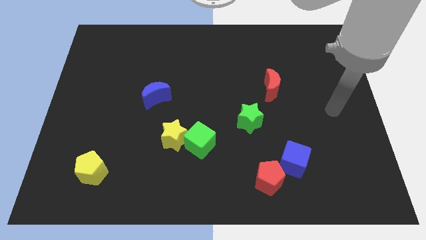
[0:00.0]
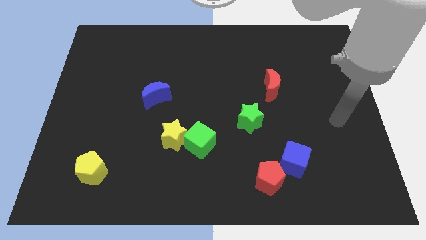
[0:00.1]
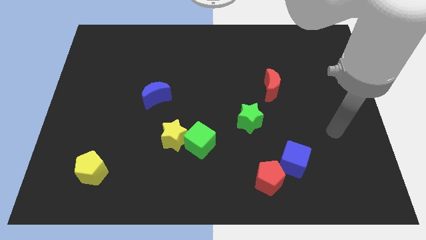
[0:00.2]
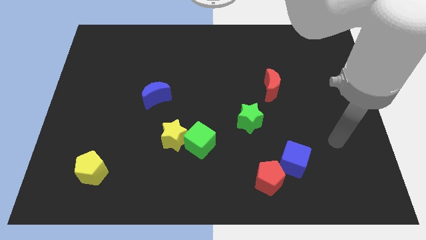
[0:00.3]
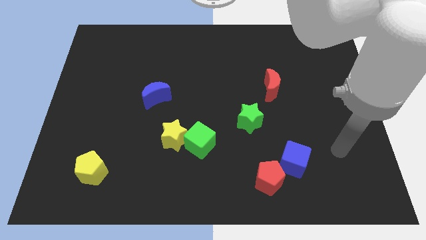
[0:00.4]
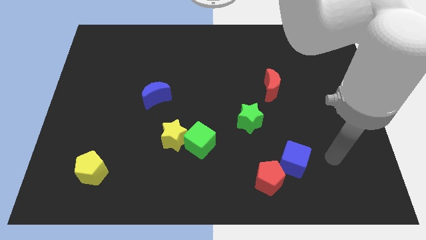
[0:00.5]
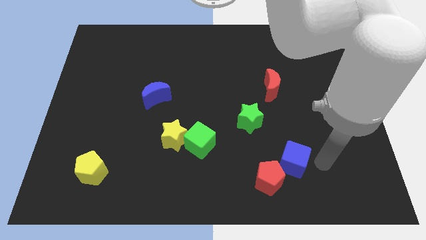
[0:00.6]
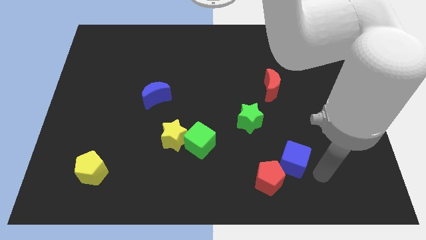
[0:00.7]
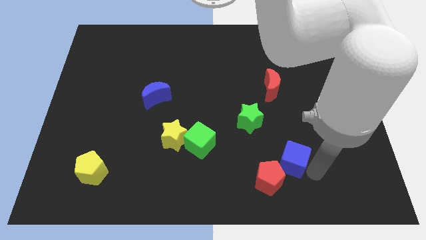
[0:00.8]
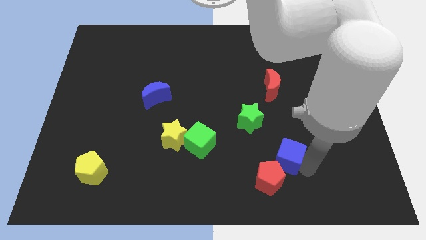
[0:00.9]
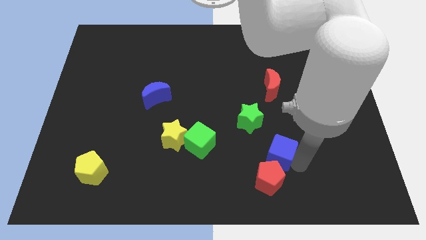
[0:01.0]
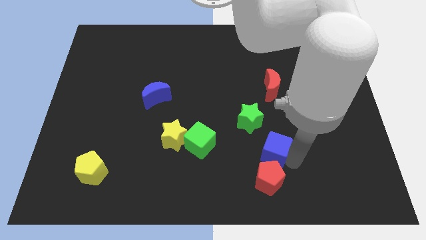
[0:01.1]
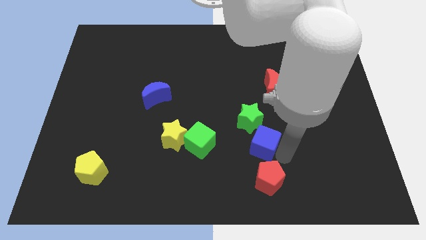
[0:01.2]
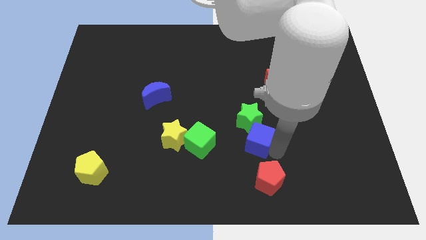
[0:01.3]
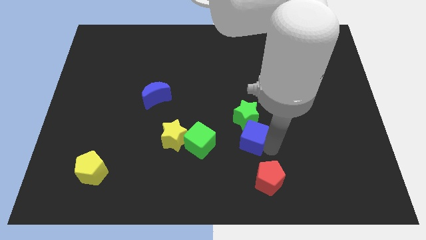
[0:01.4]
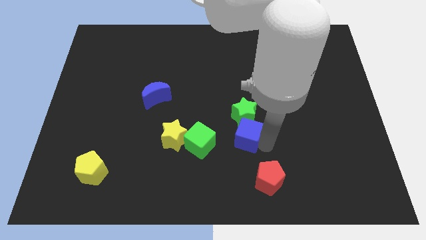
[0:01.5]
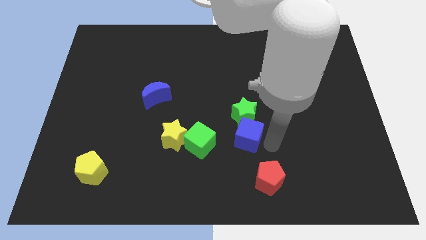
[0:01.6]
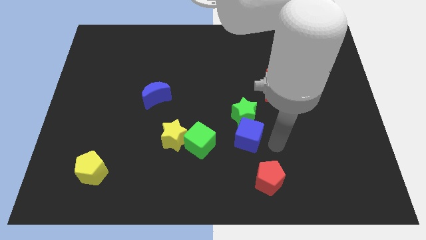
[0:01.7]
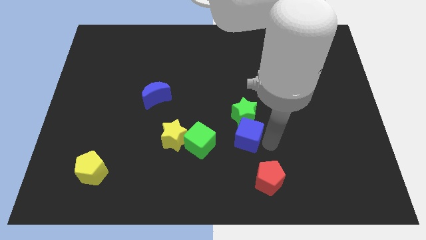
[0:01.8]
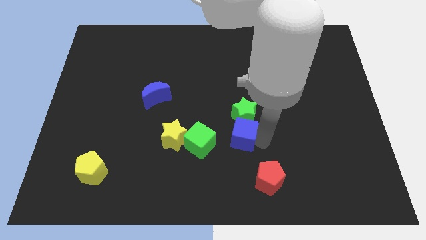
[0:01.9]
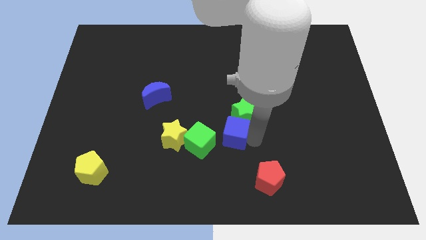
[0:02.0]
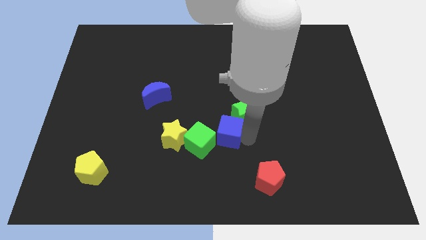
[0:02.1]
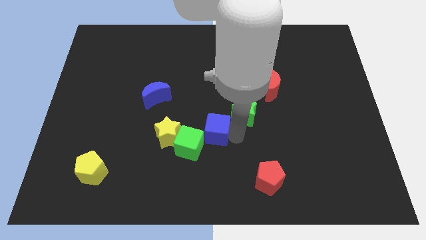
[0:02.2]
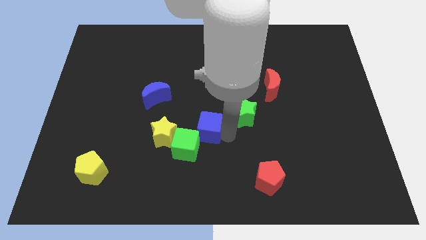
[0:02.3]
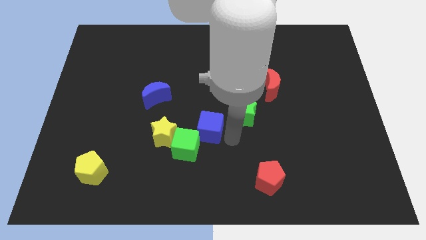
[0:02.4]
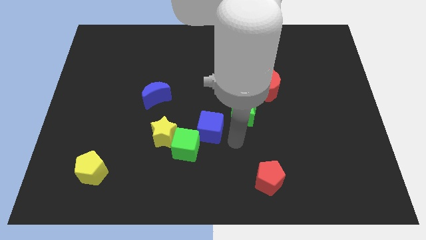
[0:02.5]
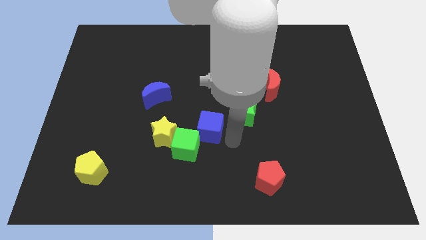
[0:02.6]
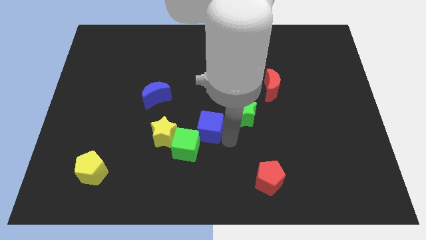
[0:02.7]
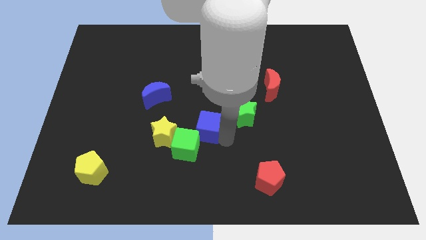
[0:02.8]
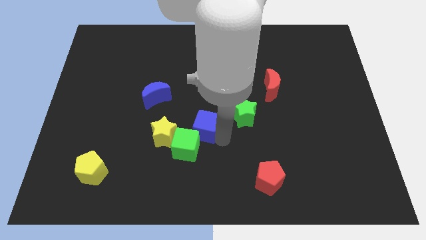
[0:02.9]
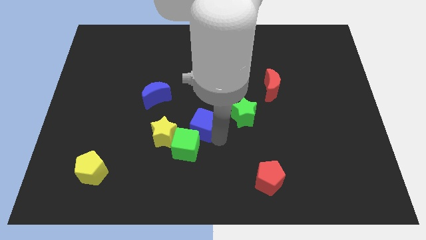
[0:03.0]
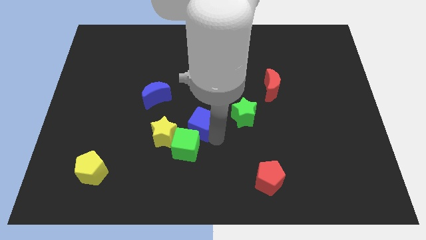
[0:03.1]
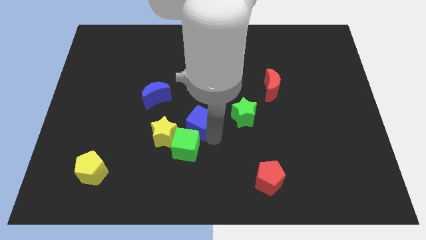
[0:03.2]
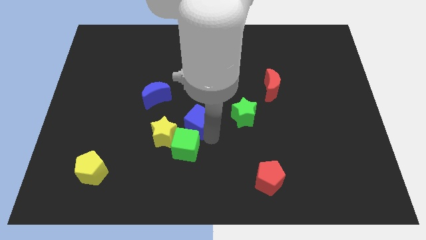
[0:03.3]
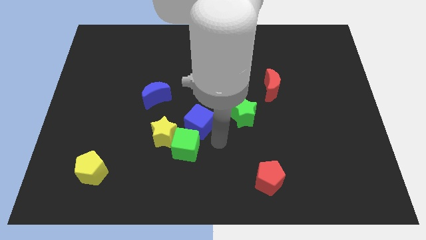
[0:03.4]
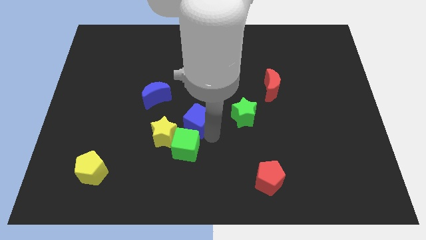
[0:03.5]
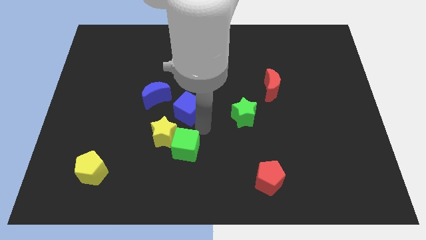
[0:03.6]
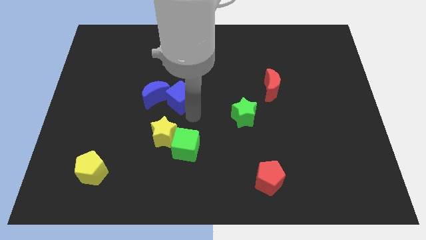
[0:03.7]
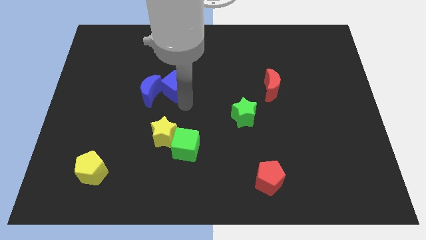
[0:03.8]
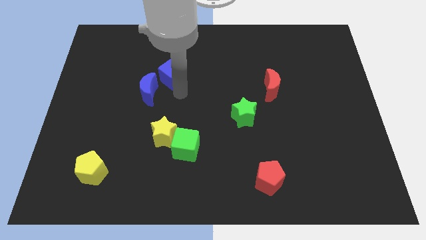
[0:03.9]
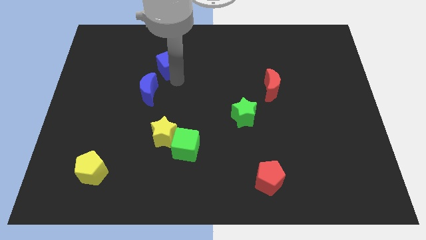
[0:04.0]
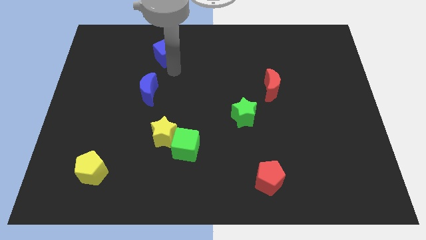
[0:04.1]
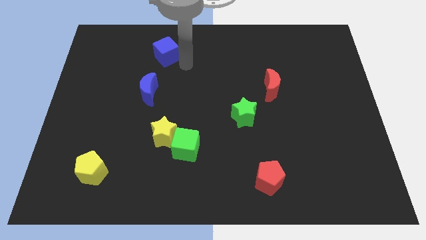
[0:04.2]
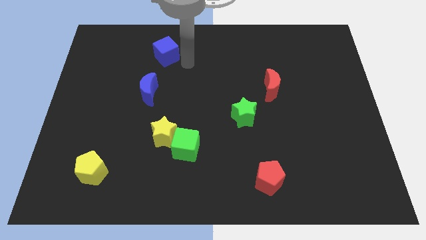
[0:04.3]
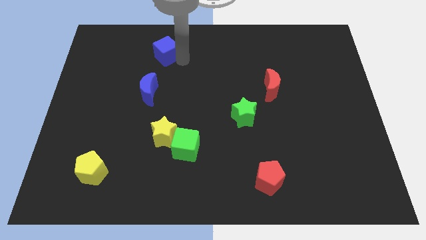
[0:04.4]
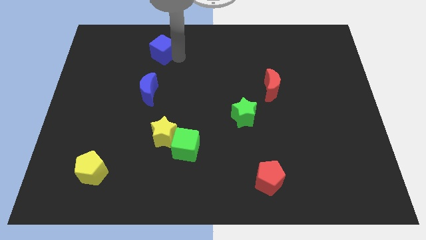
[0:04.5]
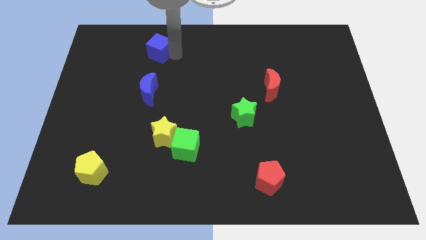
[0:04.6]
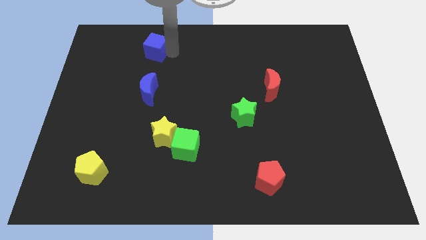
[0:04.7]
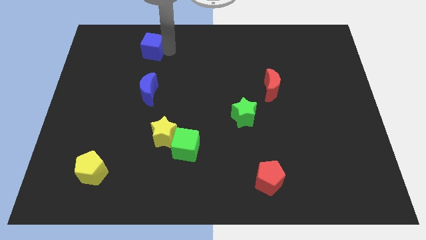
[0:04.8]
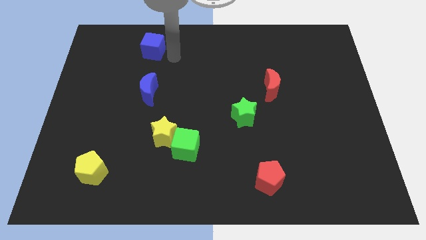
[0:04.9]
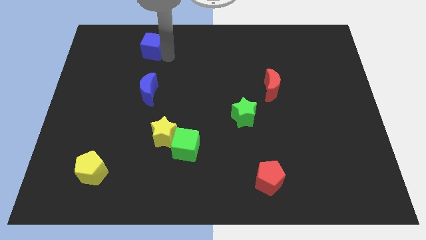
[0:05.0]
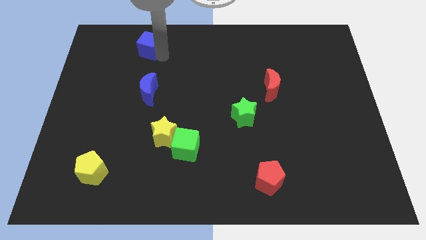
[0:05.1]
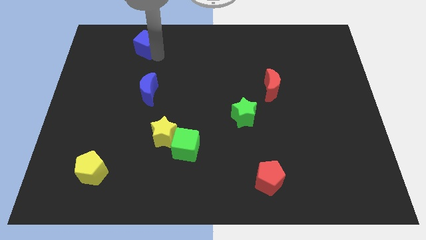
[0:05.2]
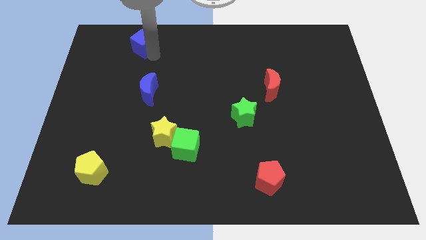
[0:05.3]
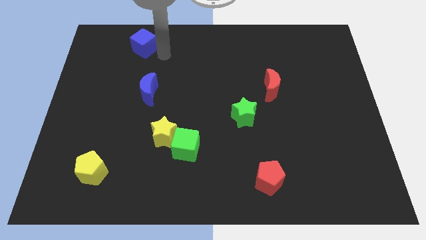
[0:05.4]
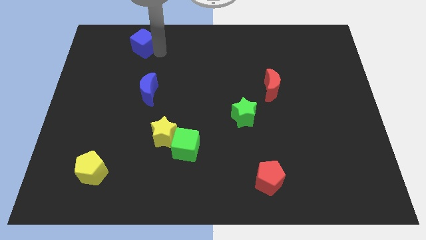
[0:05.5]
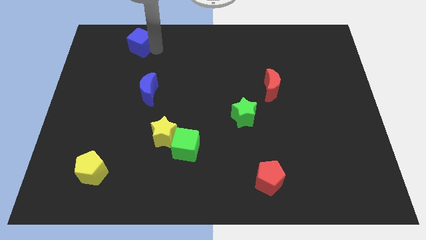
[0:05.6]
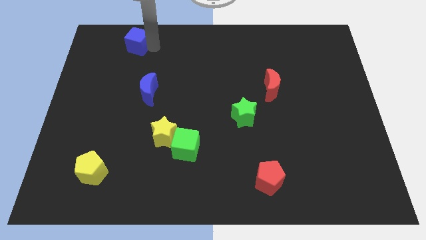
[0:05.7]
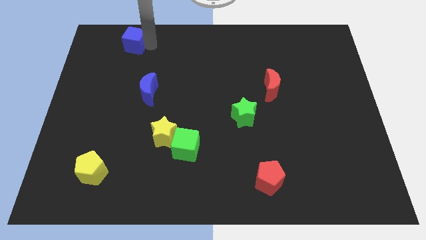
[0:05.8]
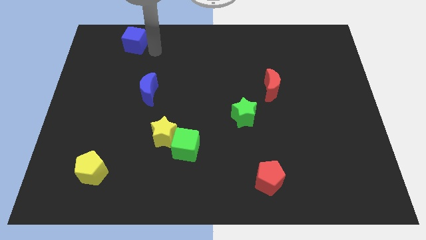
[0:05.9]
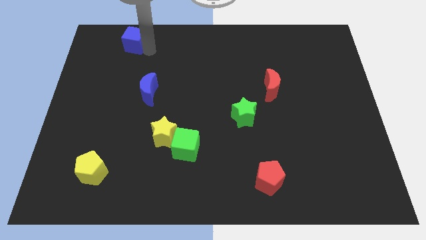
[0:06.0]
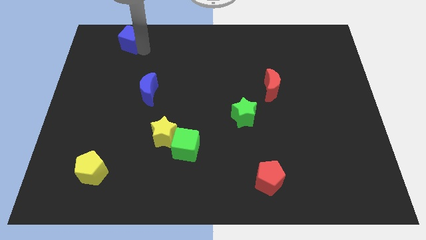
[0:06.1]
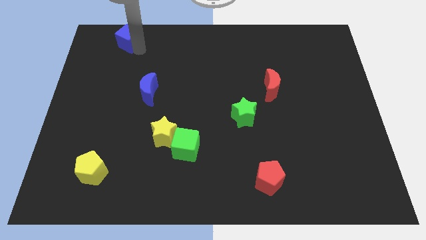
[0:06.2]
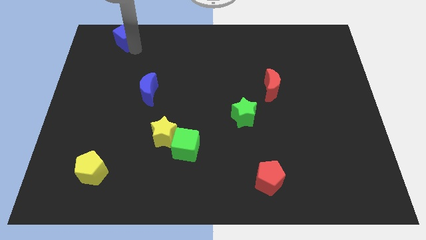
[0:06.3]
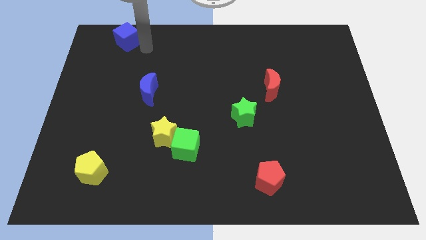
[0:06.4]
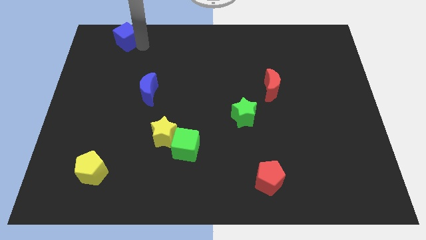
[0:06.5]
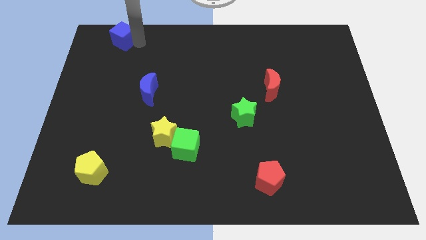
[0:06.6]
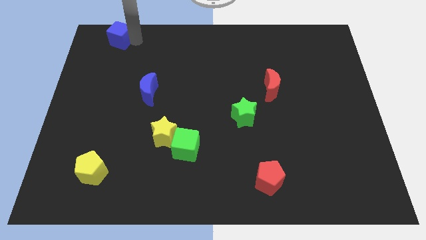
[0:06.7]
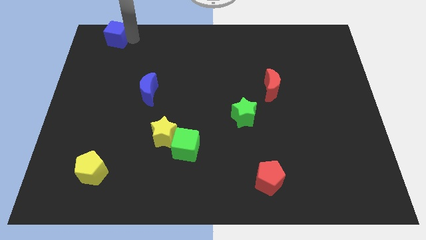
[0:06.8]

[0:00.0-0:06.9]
move the blue cube to the top left corner
